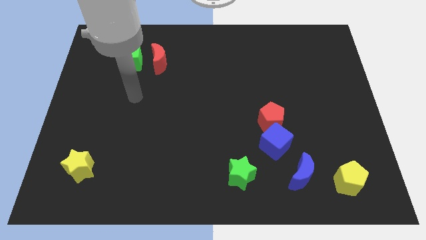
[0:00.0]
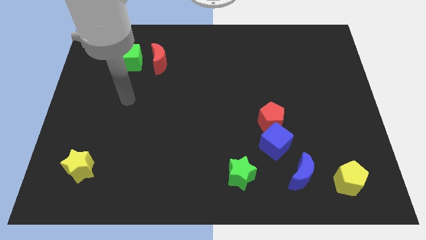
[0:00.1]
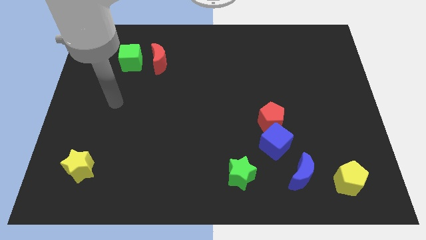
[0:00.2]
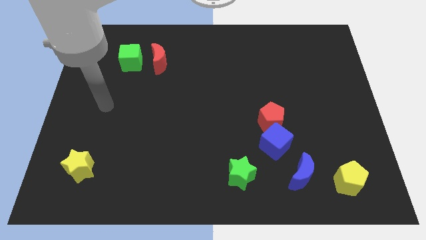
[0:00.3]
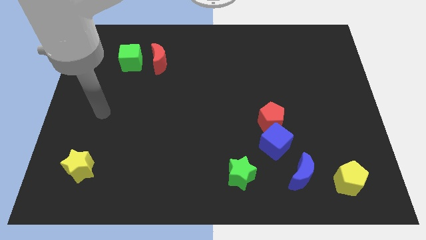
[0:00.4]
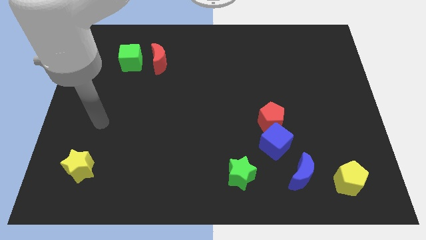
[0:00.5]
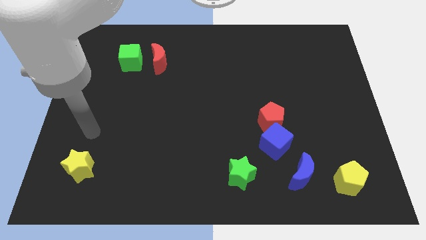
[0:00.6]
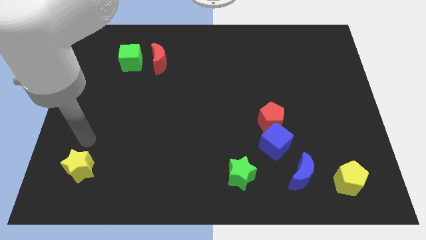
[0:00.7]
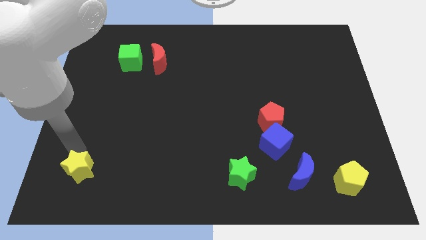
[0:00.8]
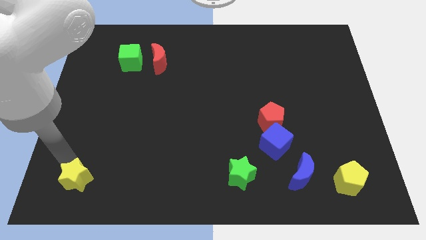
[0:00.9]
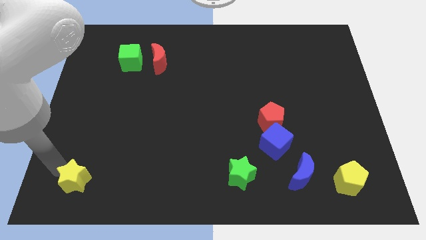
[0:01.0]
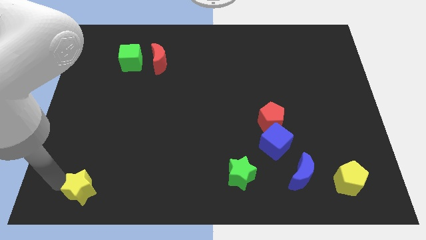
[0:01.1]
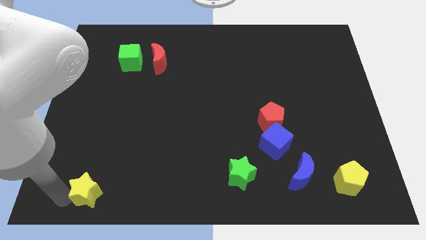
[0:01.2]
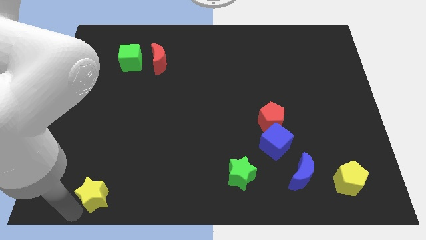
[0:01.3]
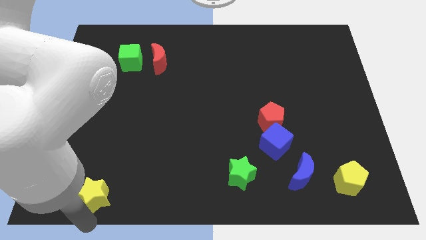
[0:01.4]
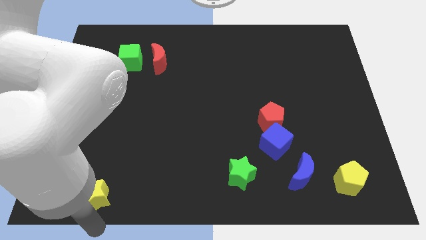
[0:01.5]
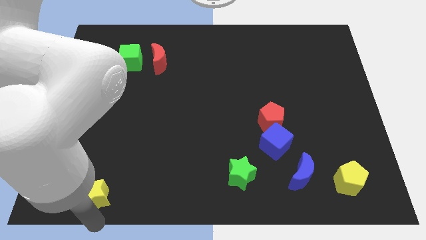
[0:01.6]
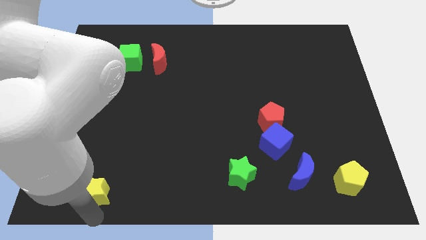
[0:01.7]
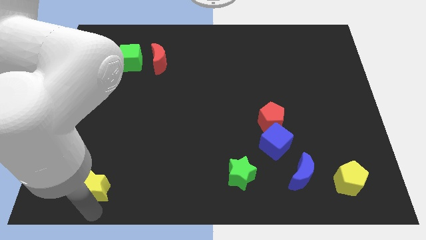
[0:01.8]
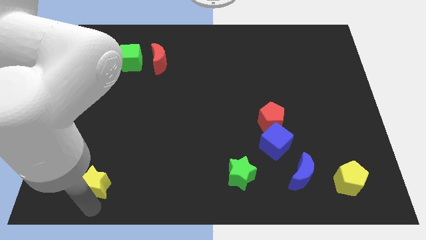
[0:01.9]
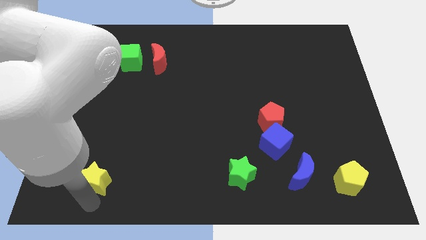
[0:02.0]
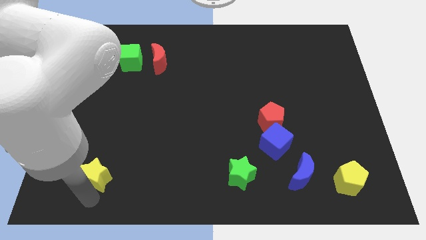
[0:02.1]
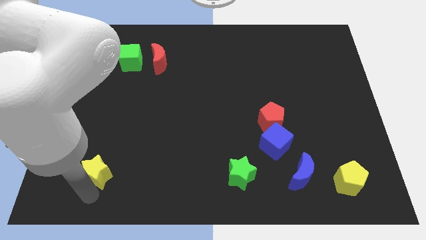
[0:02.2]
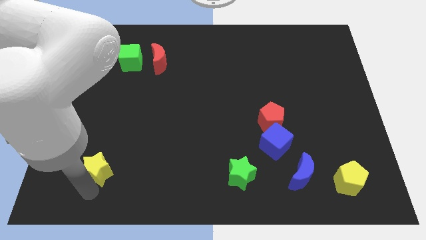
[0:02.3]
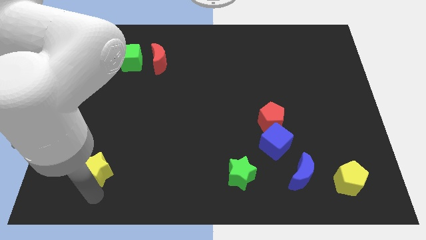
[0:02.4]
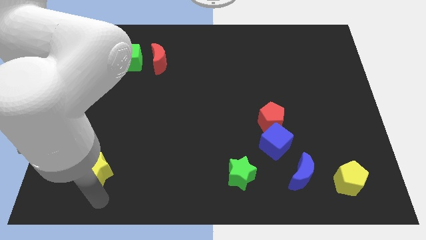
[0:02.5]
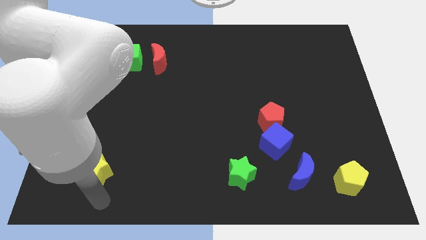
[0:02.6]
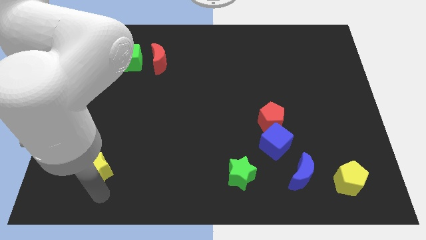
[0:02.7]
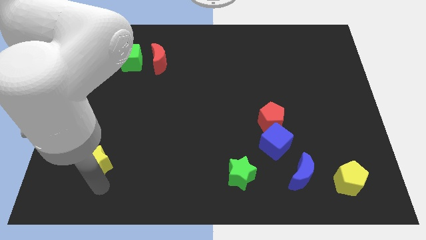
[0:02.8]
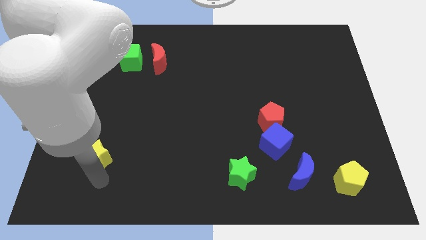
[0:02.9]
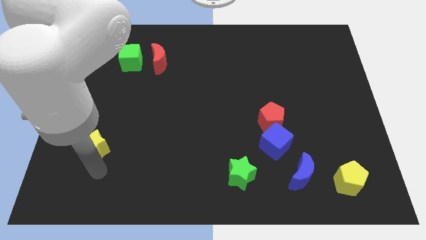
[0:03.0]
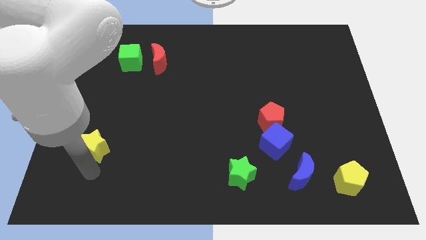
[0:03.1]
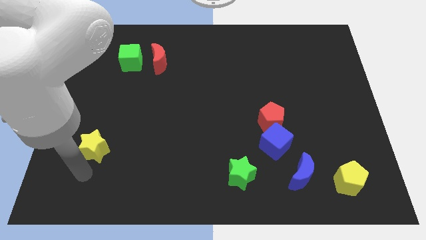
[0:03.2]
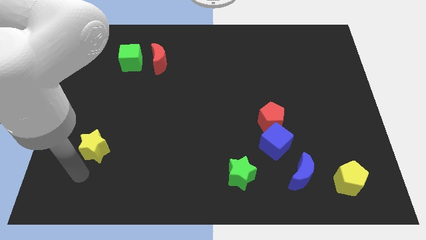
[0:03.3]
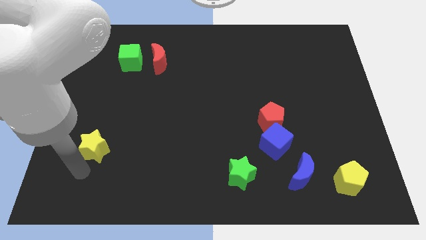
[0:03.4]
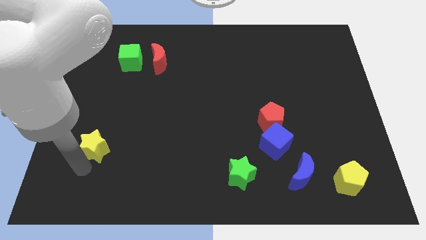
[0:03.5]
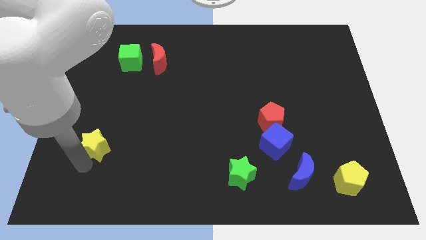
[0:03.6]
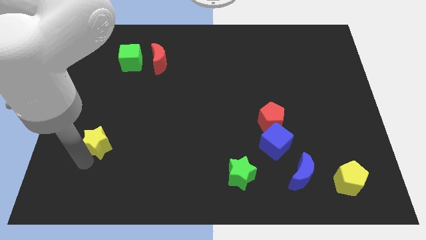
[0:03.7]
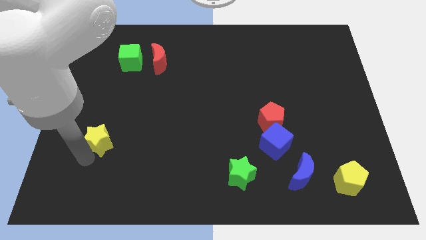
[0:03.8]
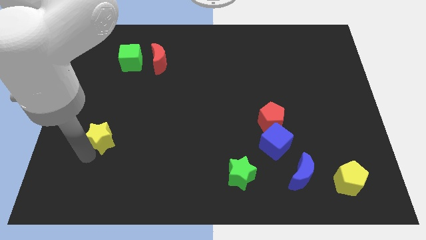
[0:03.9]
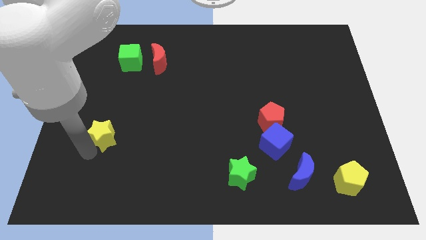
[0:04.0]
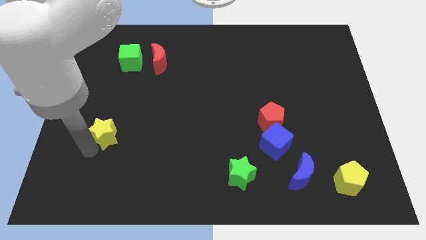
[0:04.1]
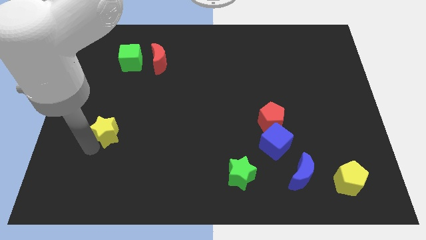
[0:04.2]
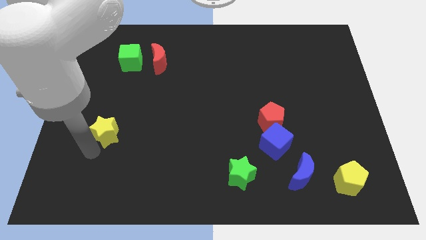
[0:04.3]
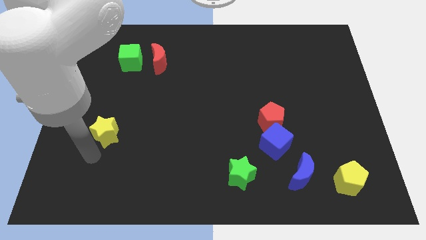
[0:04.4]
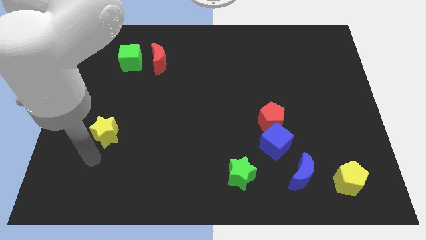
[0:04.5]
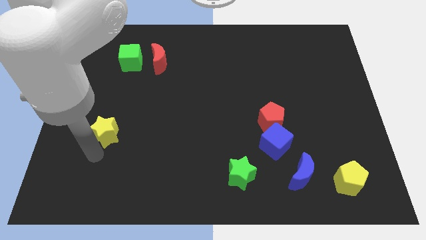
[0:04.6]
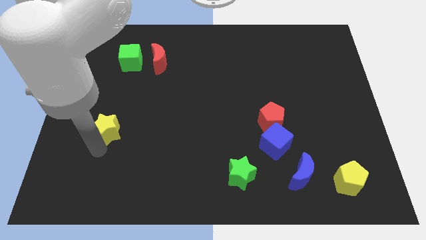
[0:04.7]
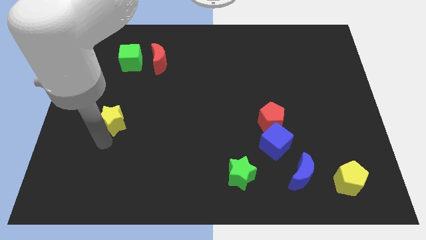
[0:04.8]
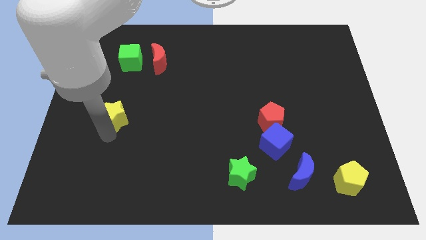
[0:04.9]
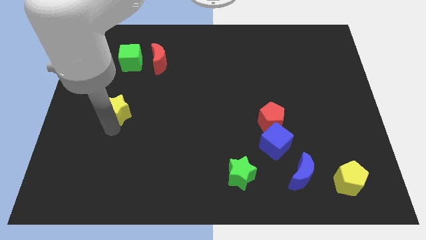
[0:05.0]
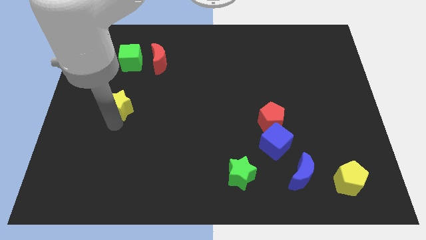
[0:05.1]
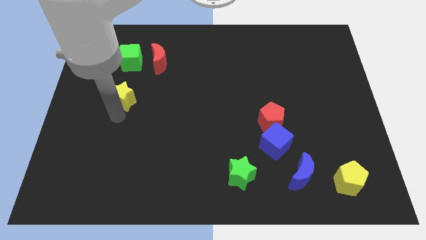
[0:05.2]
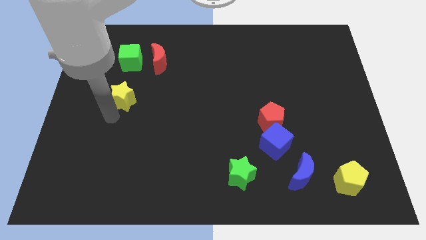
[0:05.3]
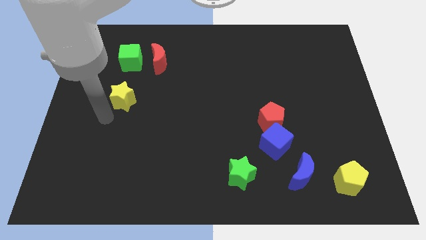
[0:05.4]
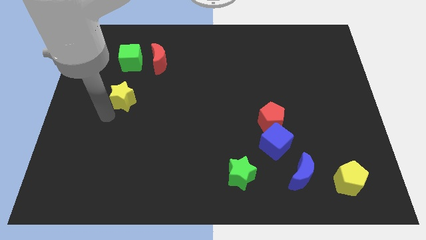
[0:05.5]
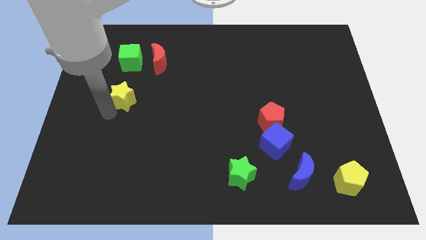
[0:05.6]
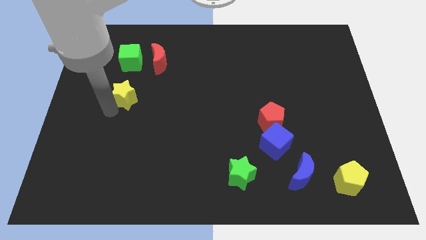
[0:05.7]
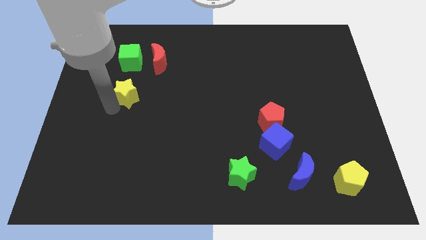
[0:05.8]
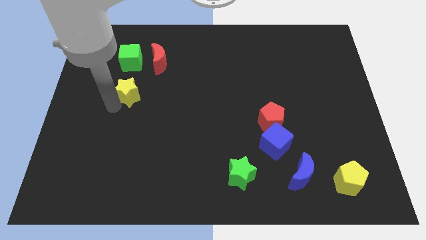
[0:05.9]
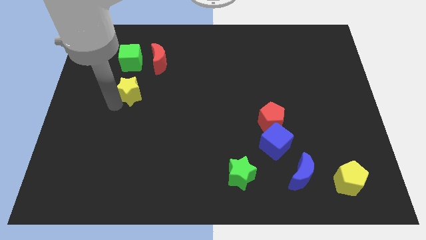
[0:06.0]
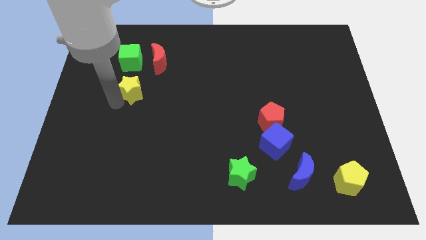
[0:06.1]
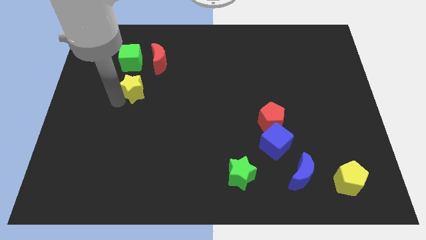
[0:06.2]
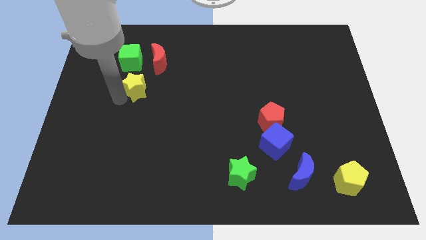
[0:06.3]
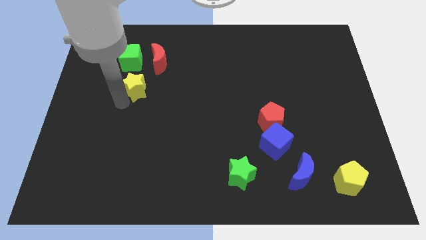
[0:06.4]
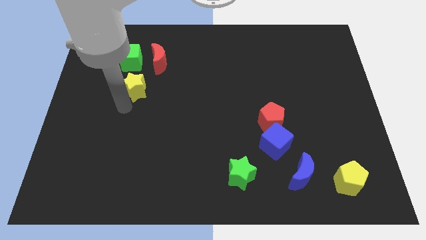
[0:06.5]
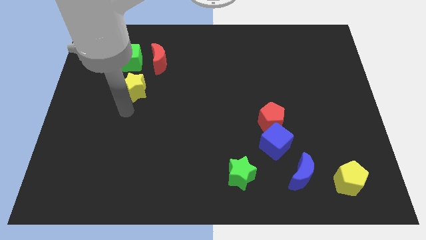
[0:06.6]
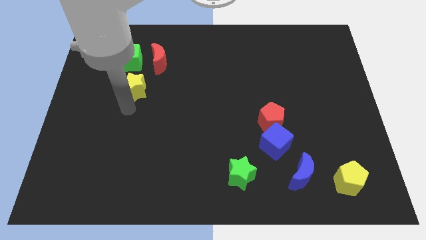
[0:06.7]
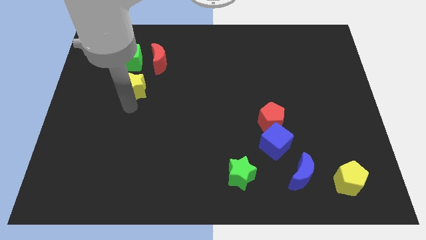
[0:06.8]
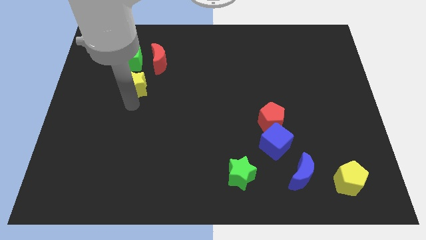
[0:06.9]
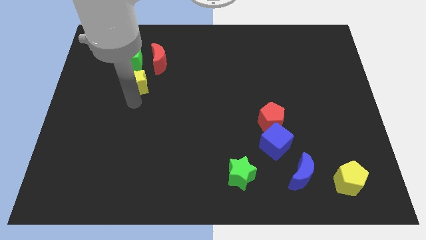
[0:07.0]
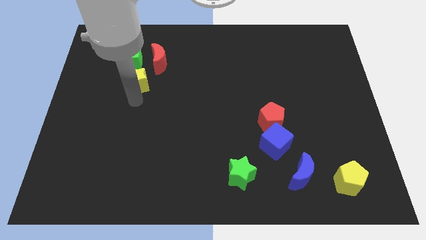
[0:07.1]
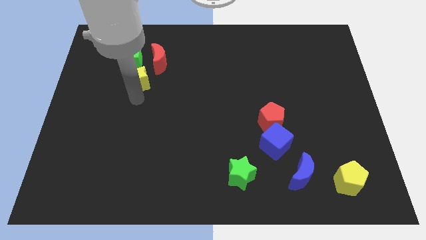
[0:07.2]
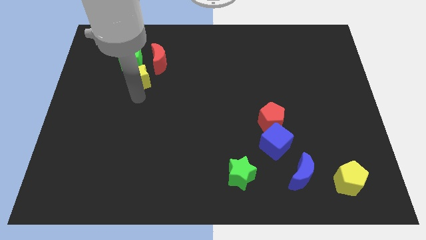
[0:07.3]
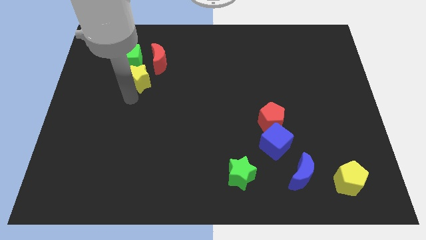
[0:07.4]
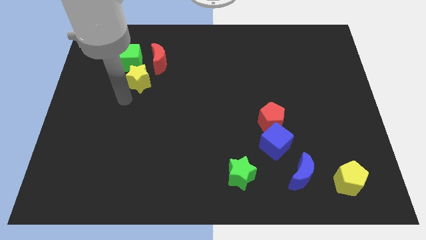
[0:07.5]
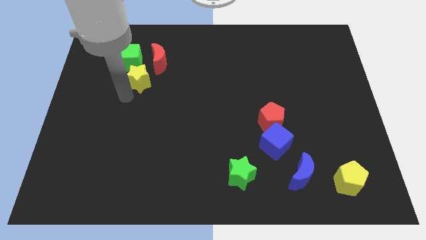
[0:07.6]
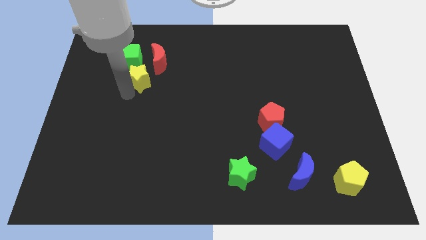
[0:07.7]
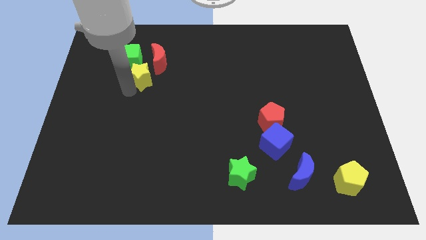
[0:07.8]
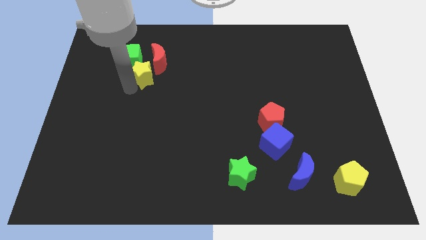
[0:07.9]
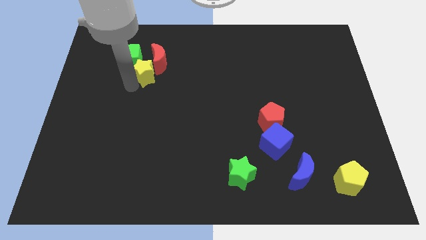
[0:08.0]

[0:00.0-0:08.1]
put the yellow star towards the red moon
